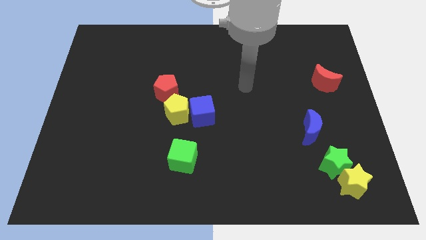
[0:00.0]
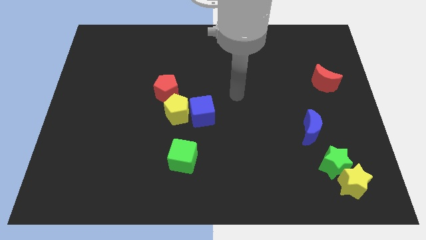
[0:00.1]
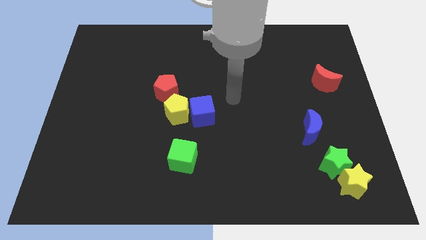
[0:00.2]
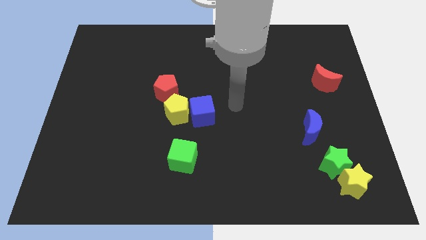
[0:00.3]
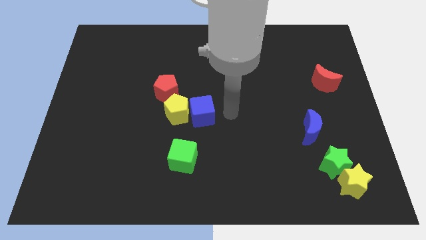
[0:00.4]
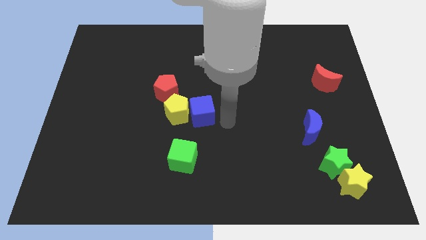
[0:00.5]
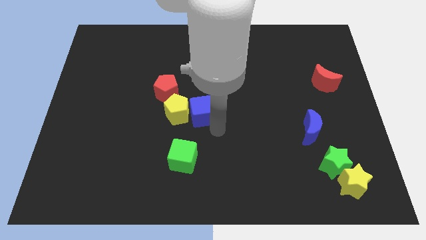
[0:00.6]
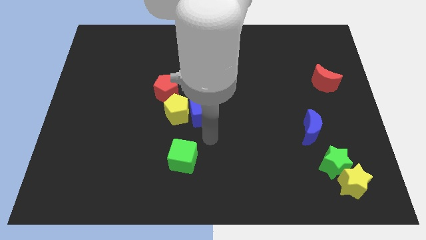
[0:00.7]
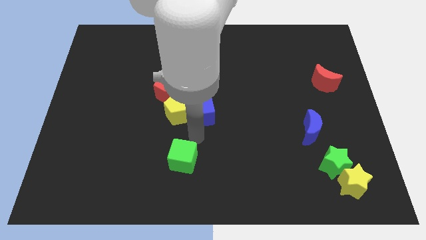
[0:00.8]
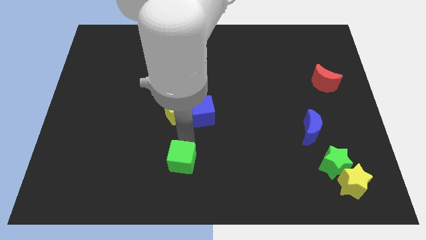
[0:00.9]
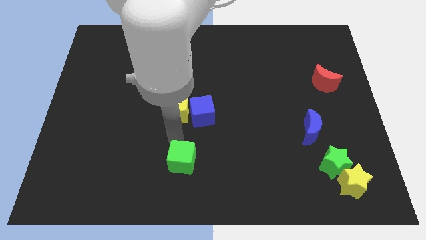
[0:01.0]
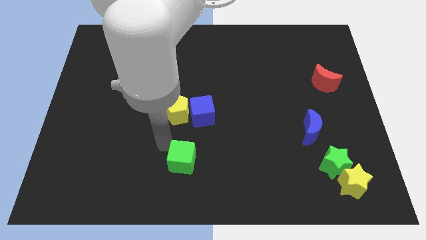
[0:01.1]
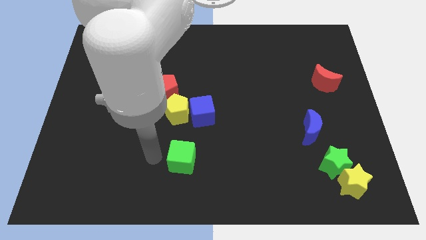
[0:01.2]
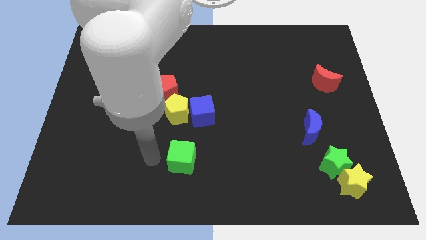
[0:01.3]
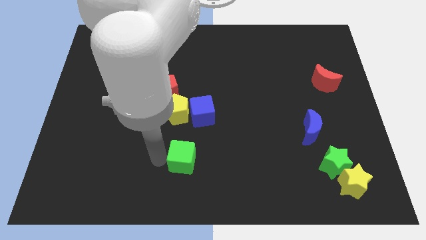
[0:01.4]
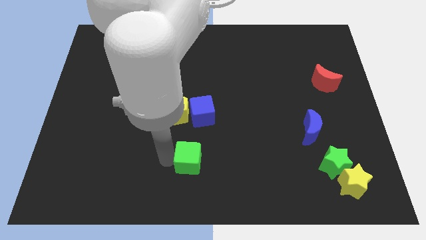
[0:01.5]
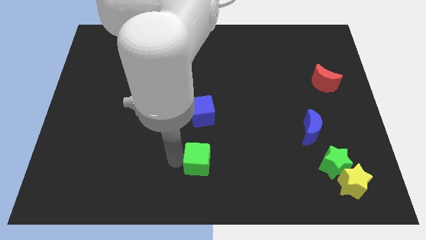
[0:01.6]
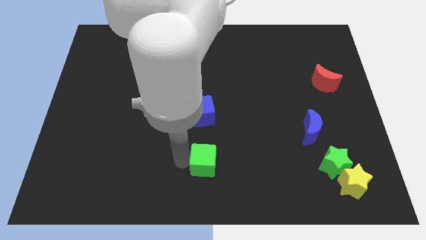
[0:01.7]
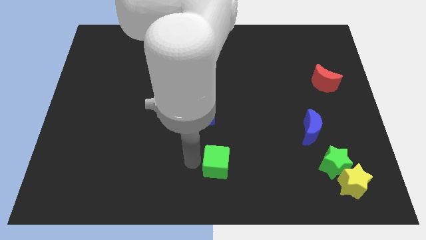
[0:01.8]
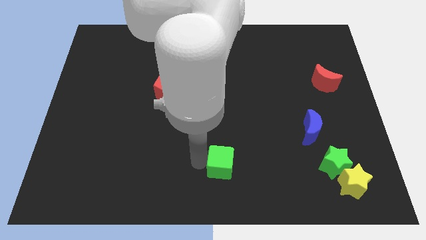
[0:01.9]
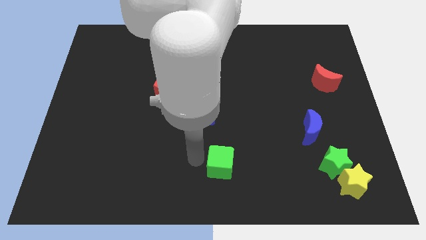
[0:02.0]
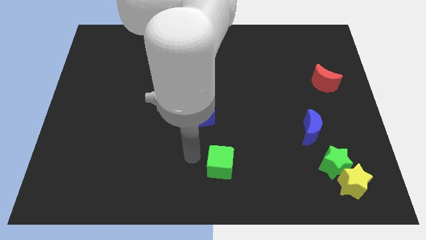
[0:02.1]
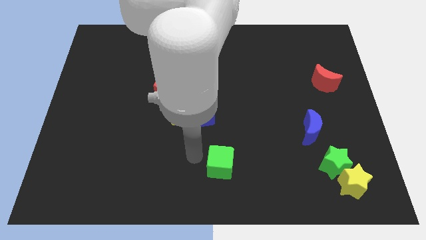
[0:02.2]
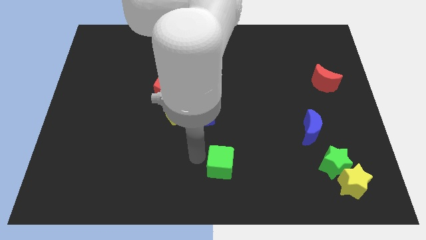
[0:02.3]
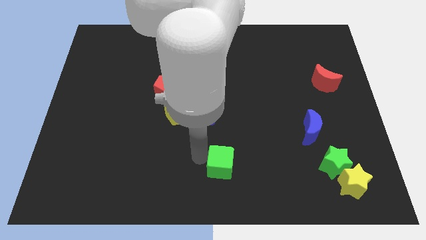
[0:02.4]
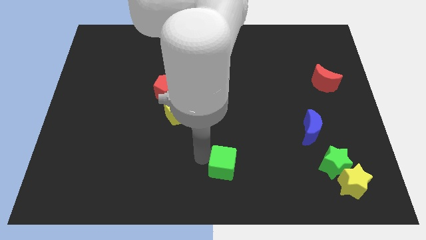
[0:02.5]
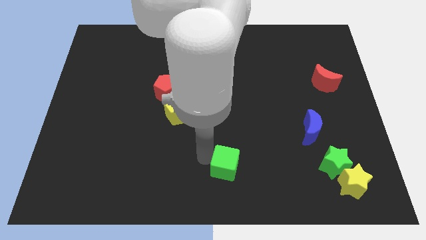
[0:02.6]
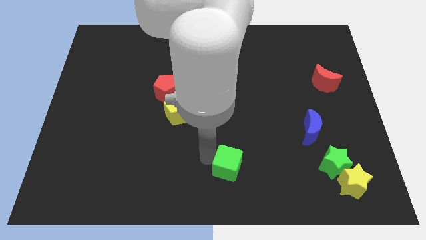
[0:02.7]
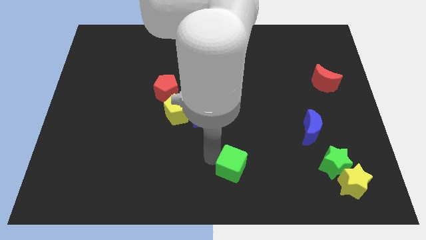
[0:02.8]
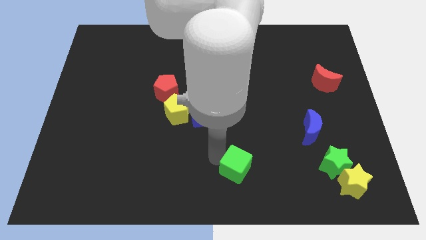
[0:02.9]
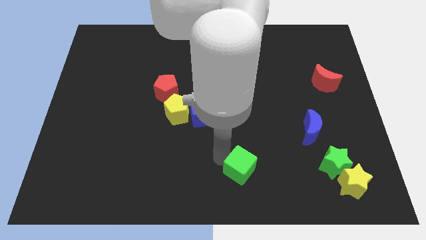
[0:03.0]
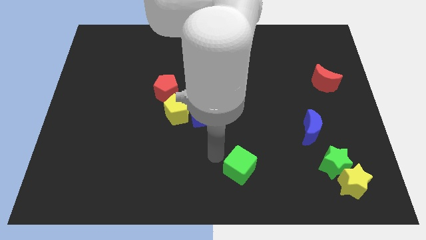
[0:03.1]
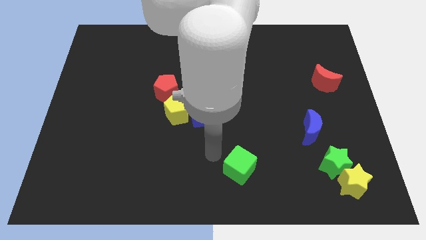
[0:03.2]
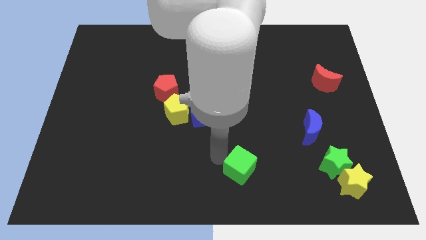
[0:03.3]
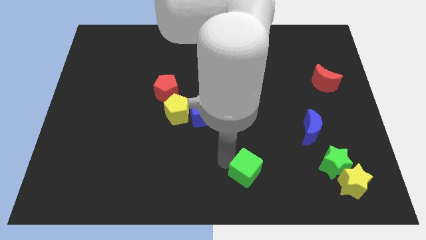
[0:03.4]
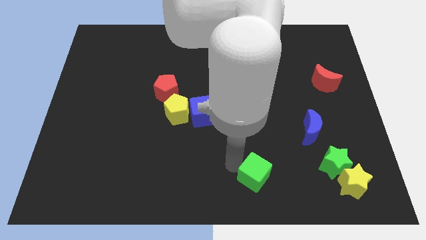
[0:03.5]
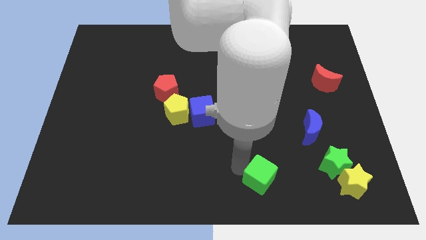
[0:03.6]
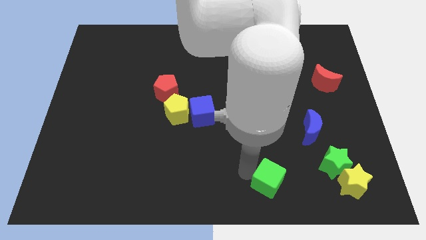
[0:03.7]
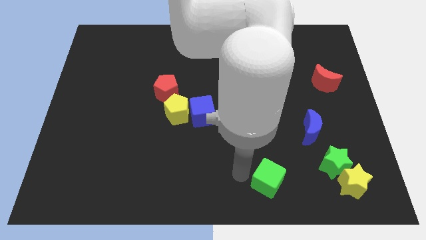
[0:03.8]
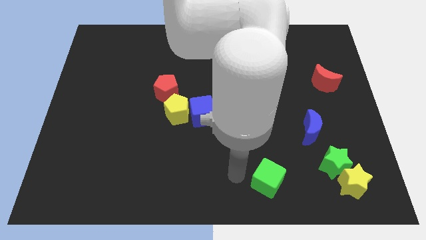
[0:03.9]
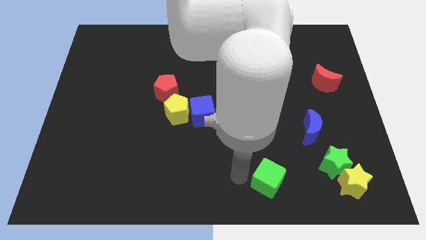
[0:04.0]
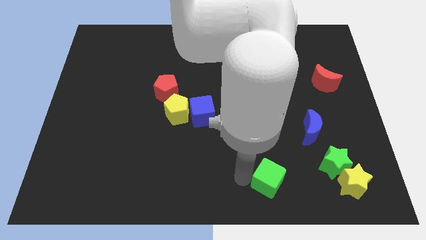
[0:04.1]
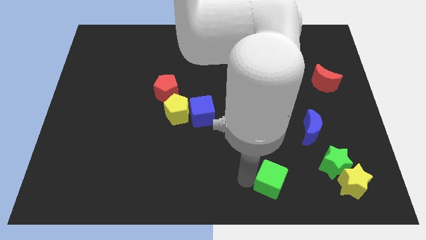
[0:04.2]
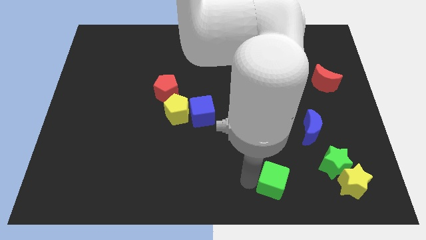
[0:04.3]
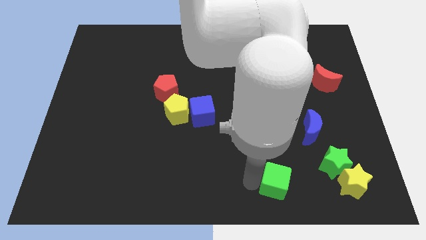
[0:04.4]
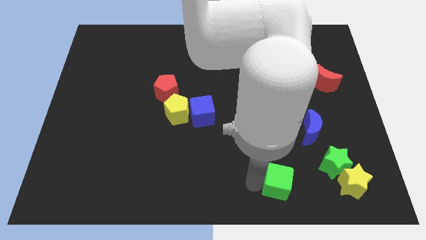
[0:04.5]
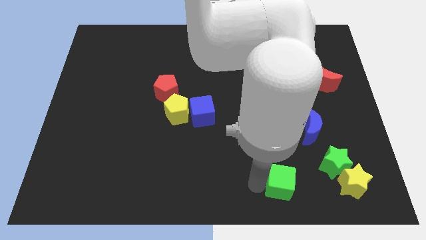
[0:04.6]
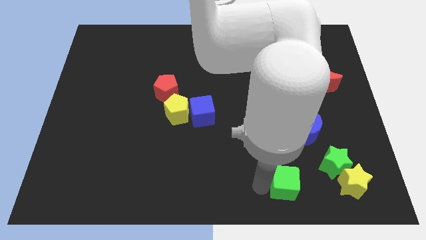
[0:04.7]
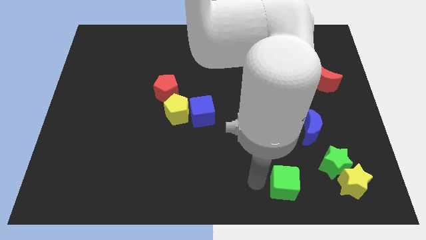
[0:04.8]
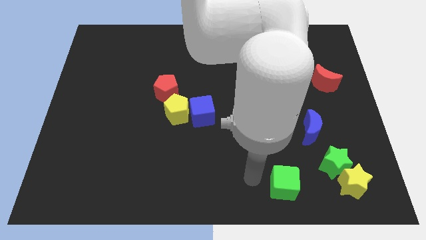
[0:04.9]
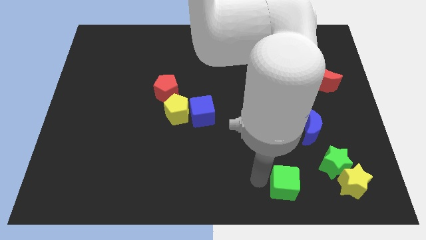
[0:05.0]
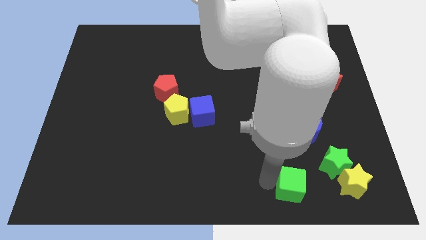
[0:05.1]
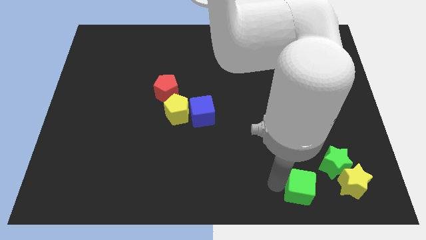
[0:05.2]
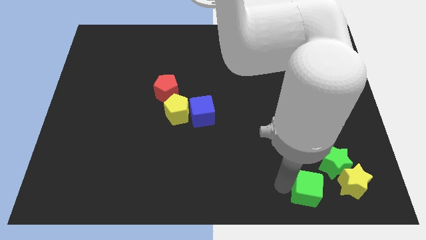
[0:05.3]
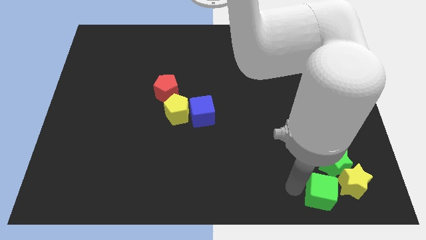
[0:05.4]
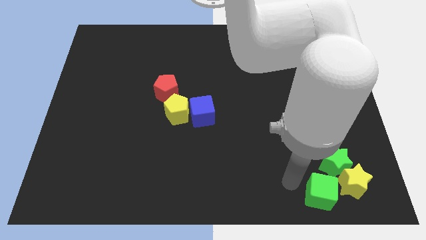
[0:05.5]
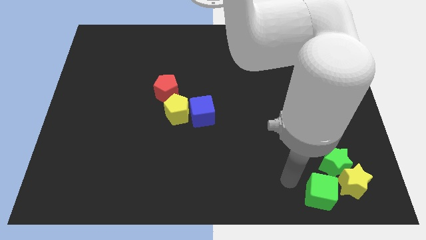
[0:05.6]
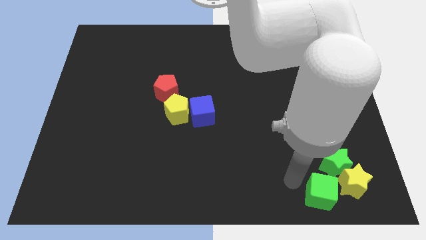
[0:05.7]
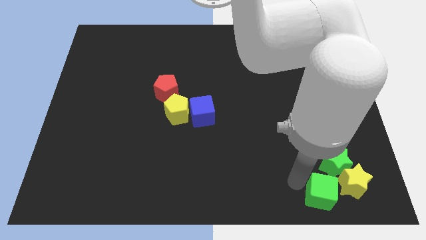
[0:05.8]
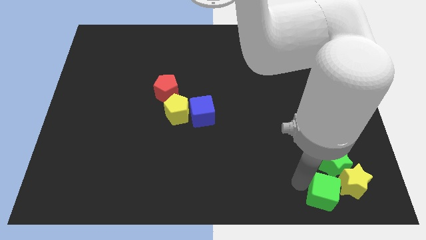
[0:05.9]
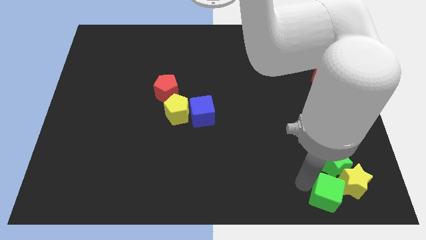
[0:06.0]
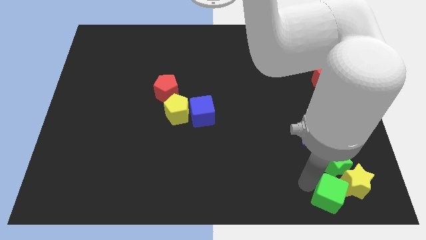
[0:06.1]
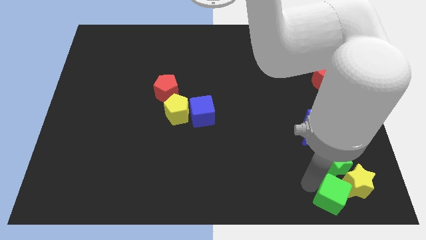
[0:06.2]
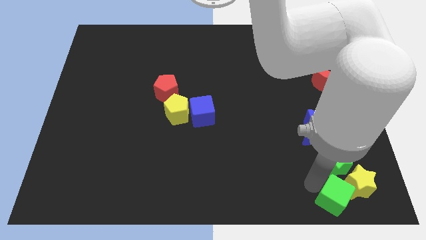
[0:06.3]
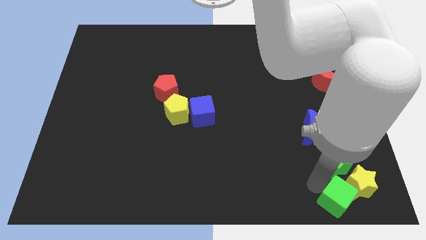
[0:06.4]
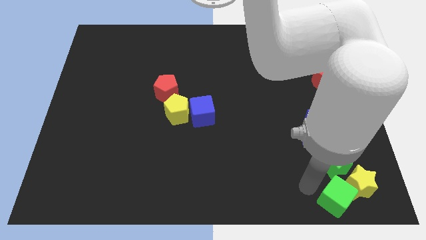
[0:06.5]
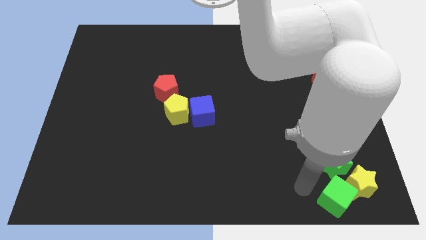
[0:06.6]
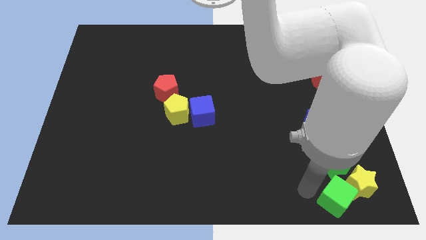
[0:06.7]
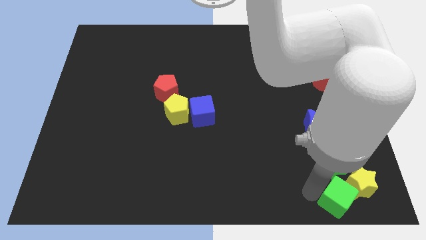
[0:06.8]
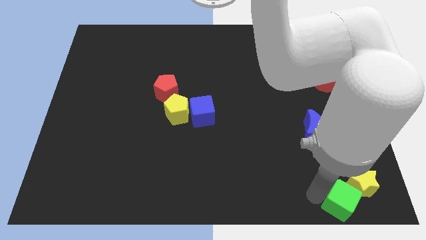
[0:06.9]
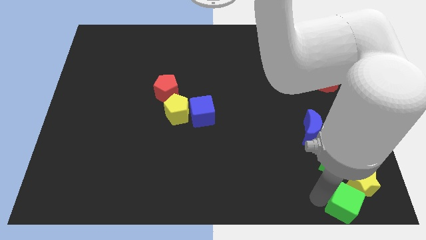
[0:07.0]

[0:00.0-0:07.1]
push the green cube to the bottom right
